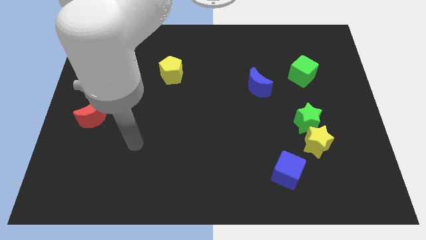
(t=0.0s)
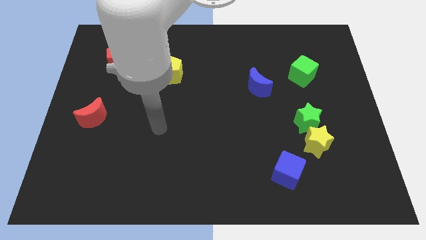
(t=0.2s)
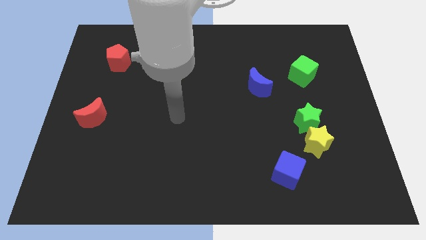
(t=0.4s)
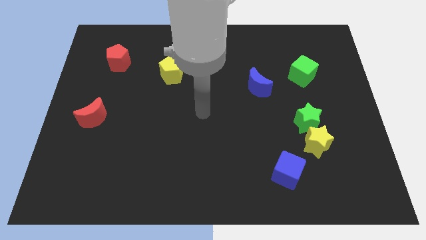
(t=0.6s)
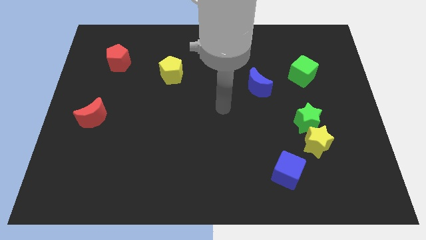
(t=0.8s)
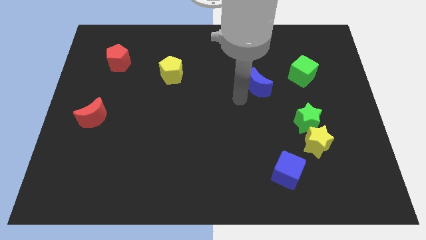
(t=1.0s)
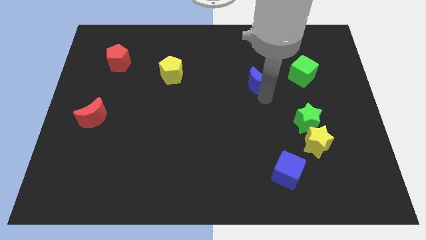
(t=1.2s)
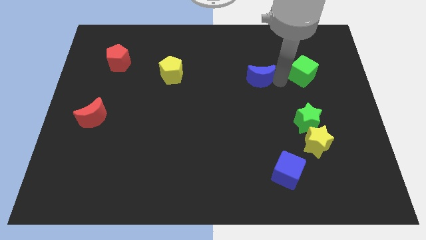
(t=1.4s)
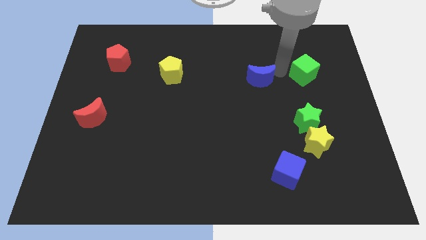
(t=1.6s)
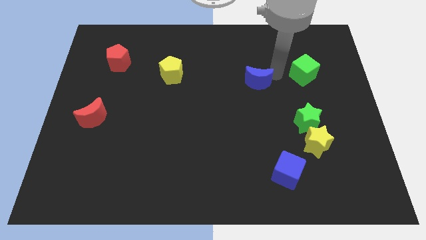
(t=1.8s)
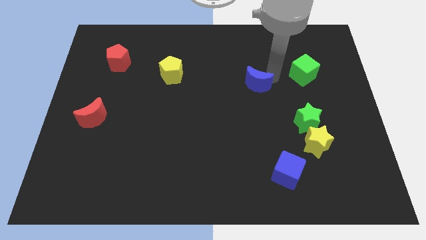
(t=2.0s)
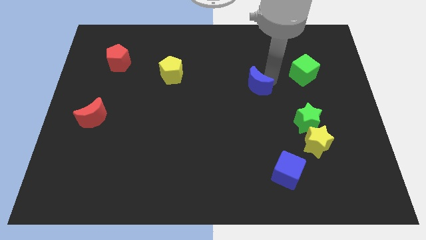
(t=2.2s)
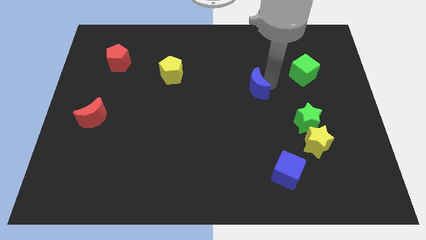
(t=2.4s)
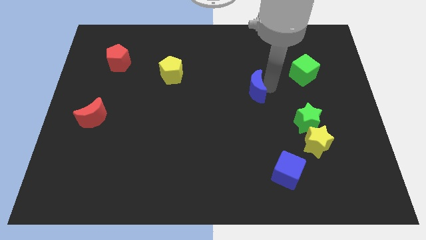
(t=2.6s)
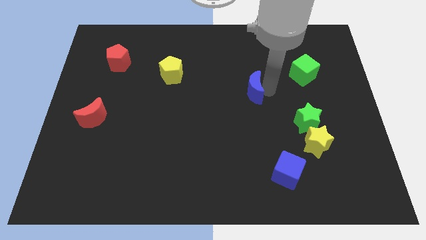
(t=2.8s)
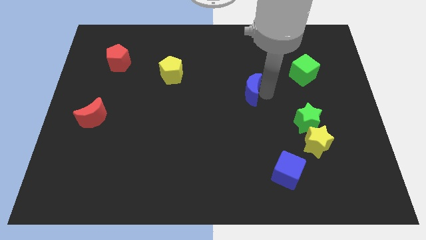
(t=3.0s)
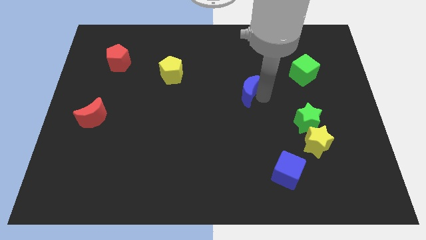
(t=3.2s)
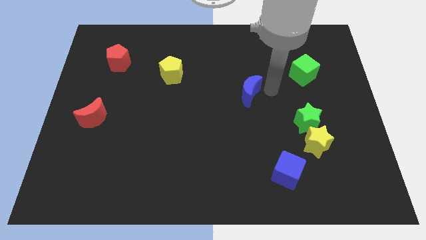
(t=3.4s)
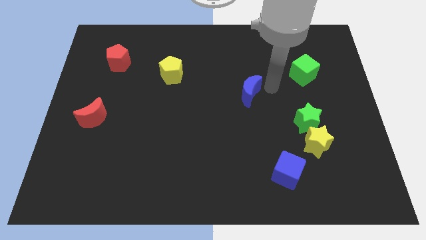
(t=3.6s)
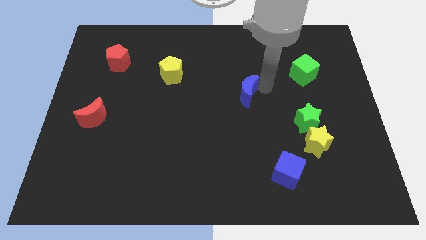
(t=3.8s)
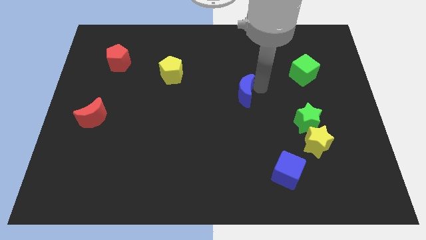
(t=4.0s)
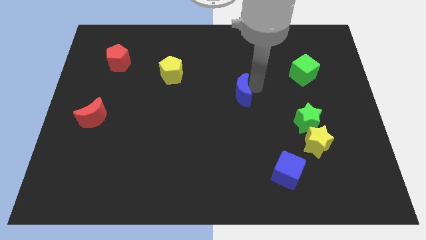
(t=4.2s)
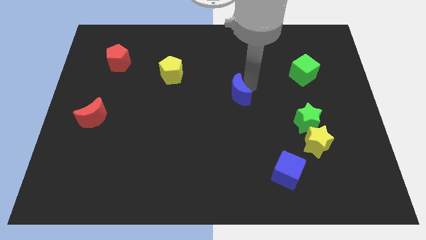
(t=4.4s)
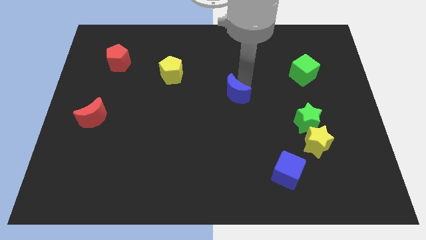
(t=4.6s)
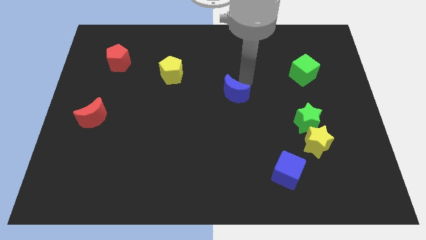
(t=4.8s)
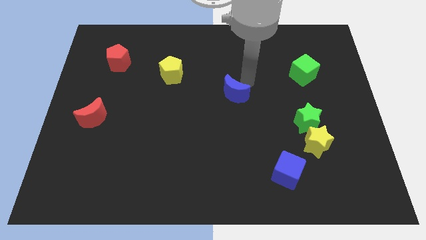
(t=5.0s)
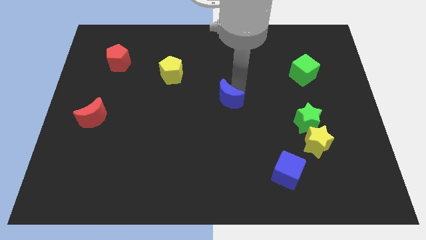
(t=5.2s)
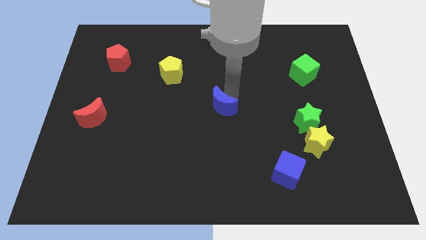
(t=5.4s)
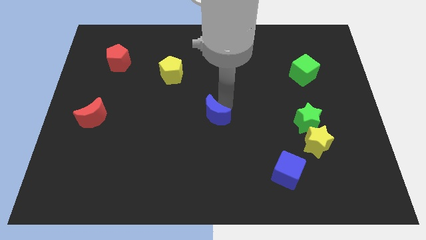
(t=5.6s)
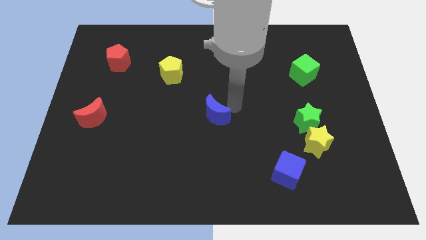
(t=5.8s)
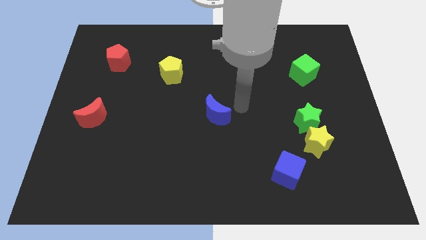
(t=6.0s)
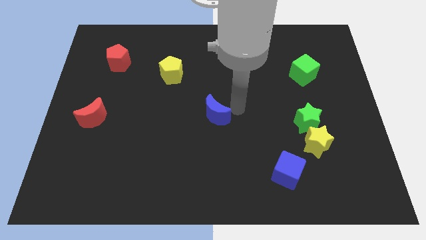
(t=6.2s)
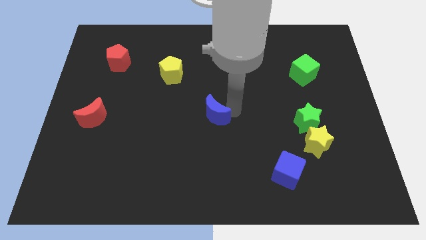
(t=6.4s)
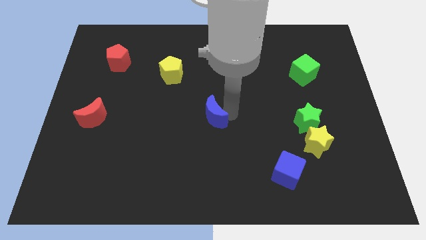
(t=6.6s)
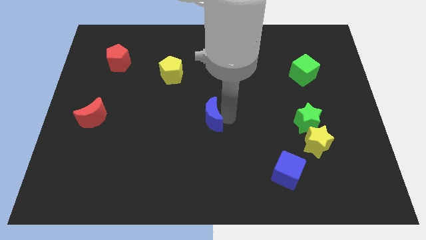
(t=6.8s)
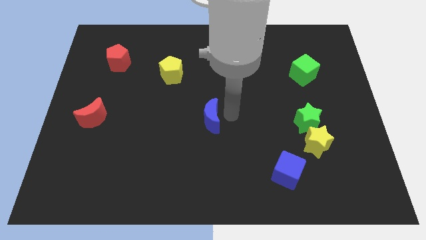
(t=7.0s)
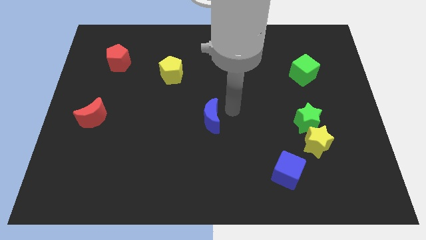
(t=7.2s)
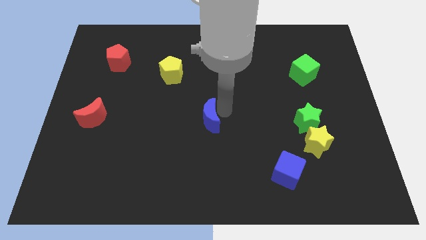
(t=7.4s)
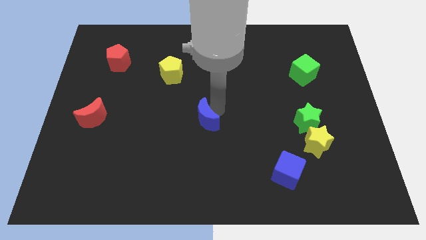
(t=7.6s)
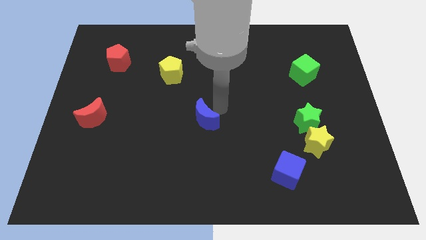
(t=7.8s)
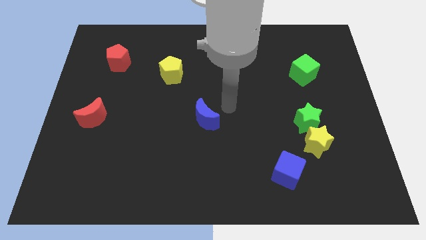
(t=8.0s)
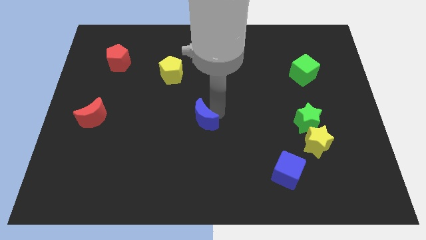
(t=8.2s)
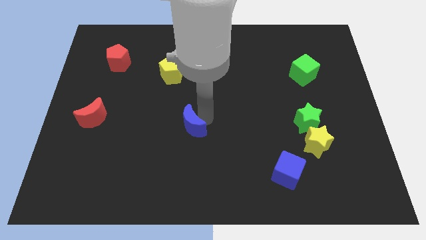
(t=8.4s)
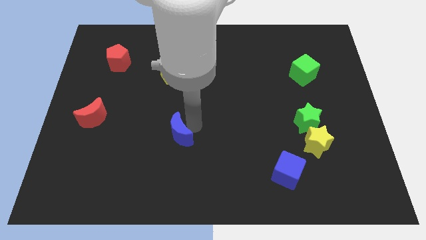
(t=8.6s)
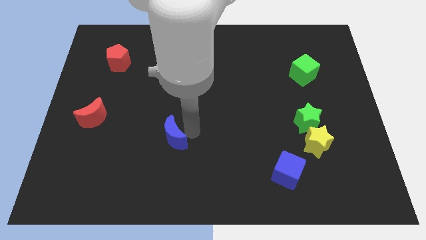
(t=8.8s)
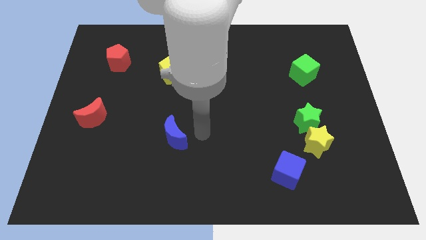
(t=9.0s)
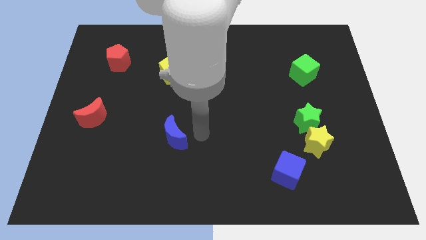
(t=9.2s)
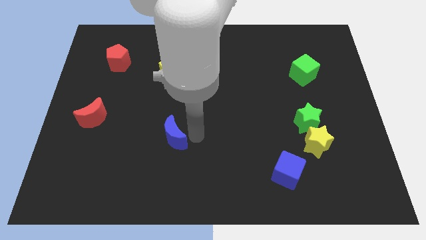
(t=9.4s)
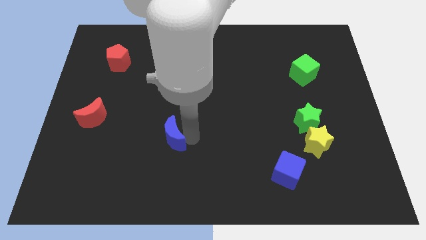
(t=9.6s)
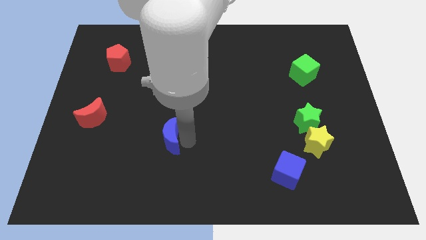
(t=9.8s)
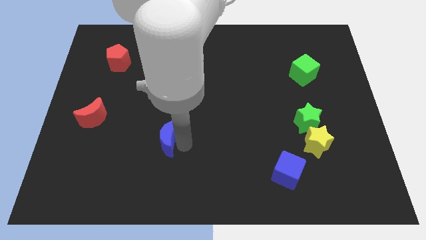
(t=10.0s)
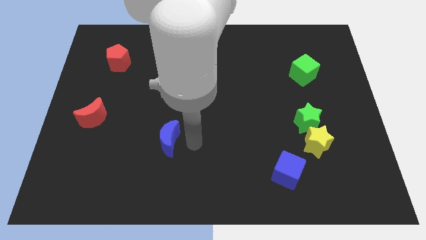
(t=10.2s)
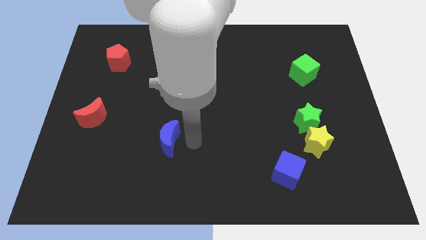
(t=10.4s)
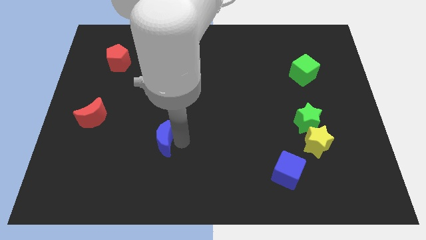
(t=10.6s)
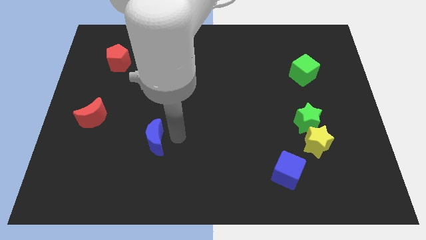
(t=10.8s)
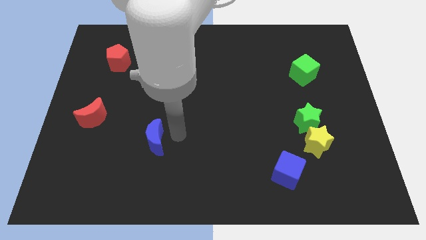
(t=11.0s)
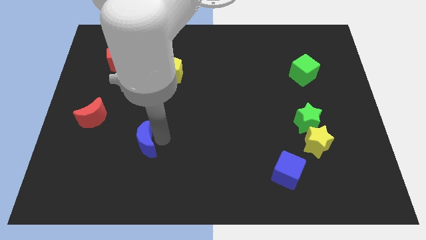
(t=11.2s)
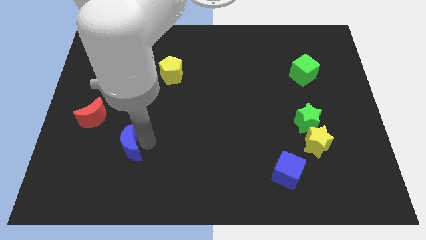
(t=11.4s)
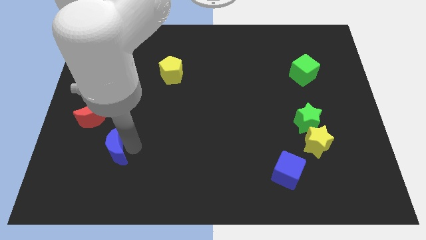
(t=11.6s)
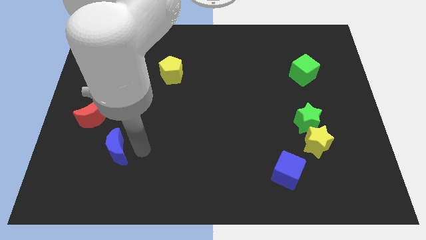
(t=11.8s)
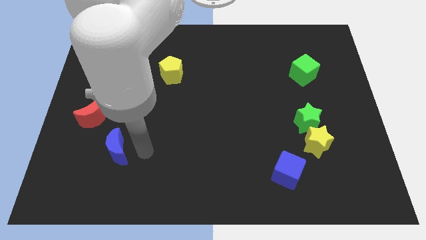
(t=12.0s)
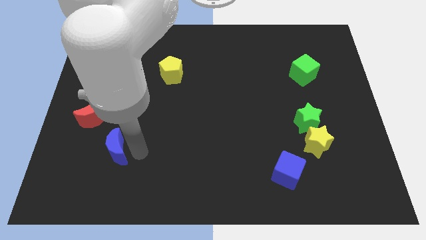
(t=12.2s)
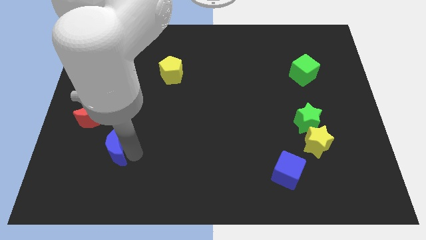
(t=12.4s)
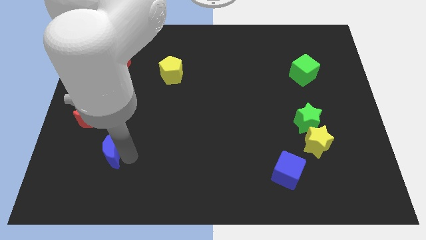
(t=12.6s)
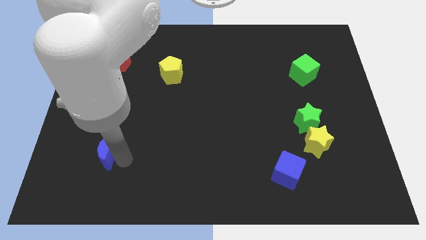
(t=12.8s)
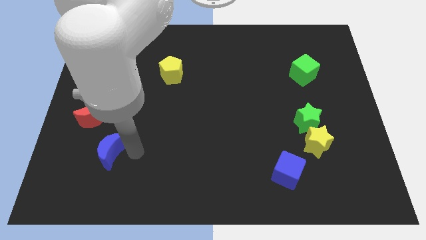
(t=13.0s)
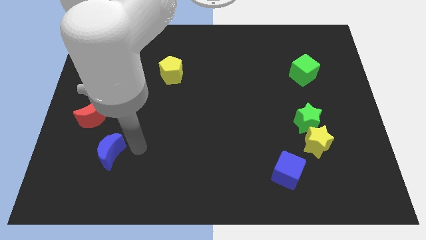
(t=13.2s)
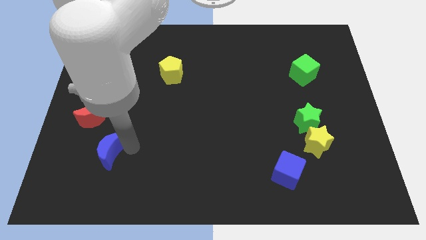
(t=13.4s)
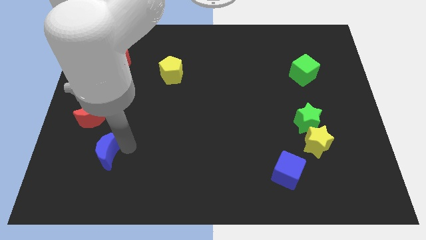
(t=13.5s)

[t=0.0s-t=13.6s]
slide the blue moon below the red moon
